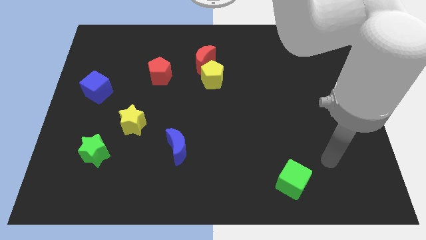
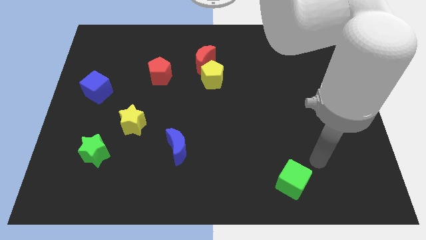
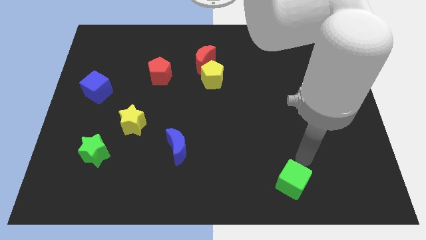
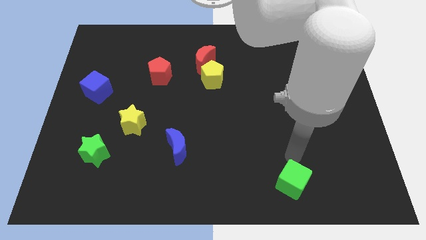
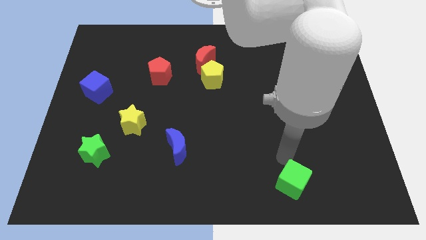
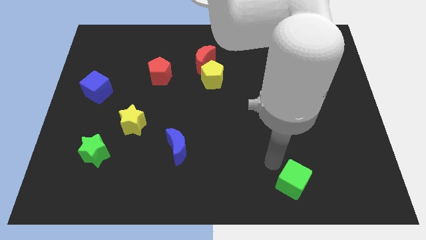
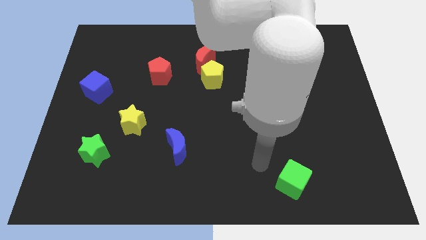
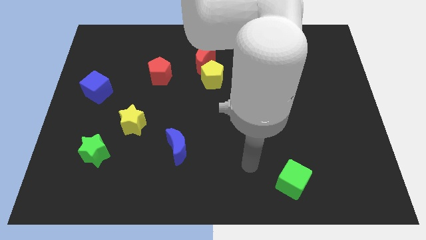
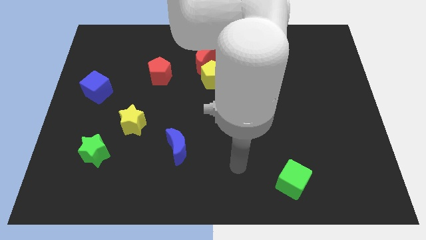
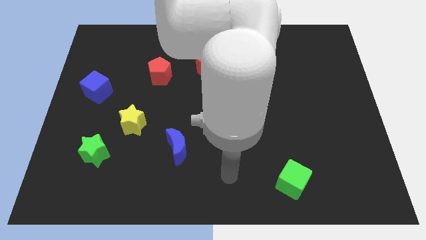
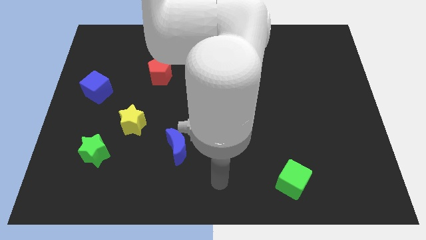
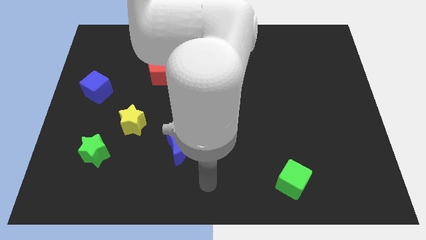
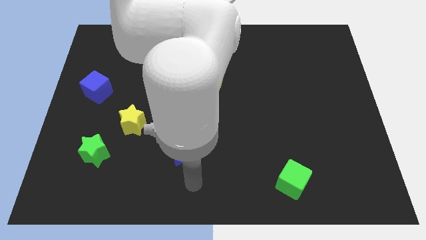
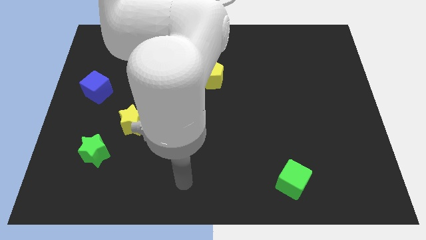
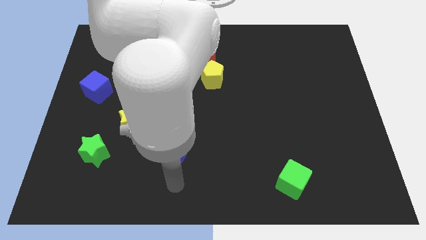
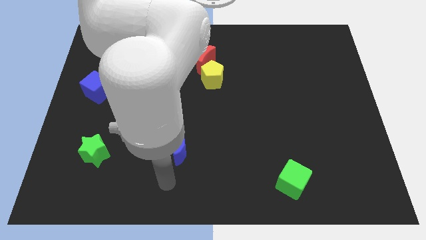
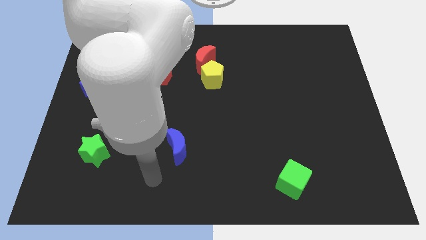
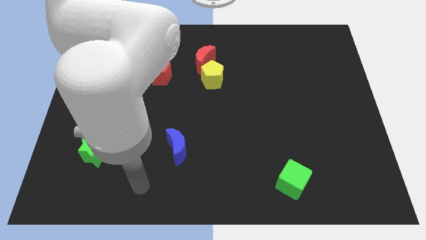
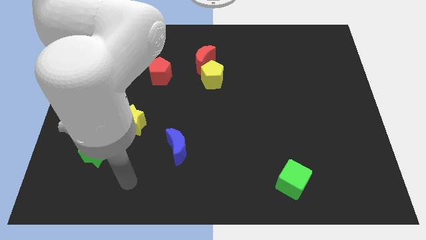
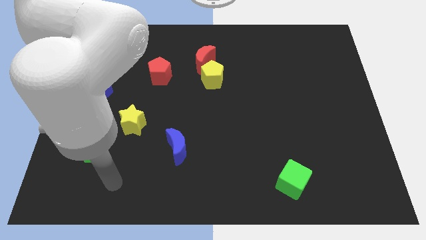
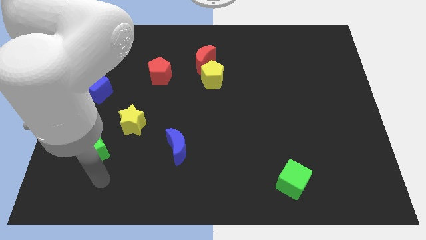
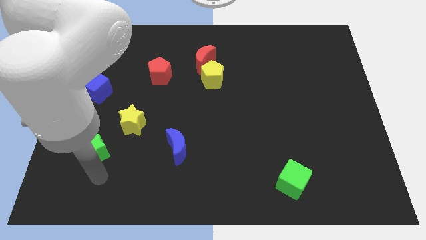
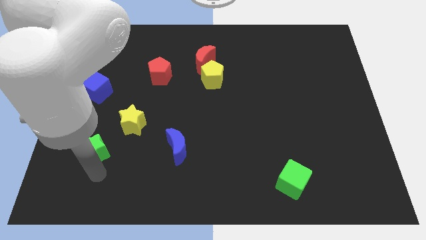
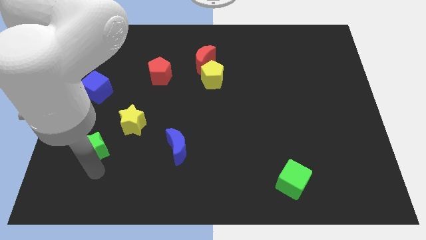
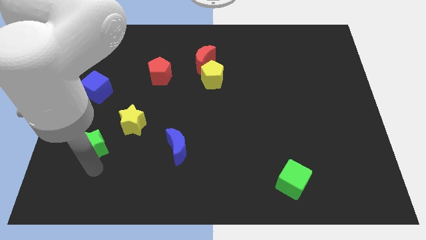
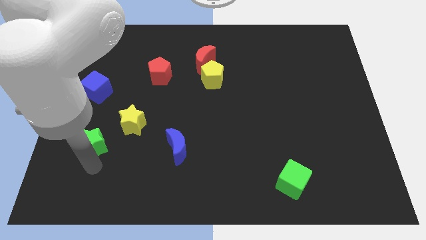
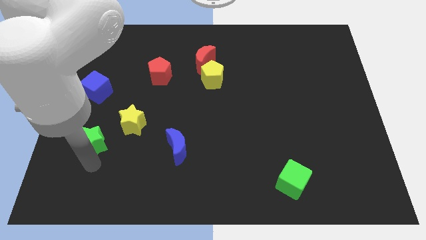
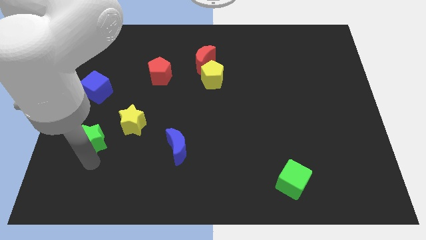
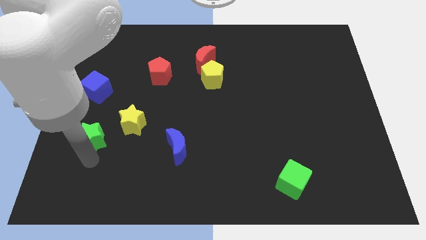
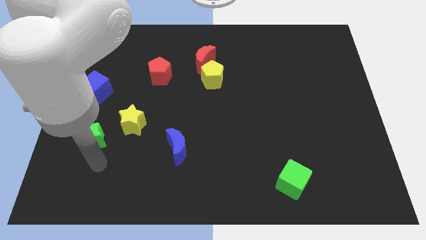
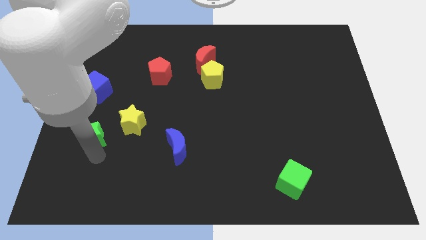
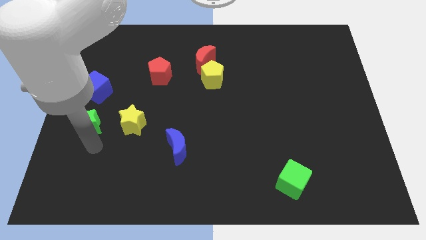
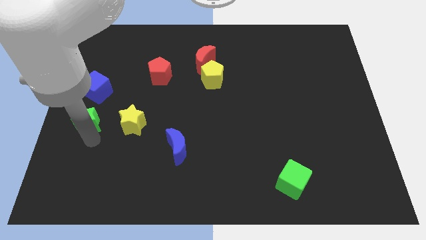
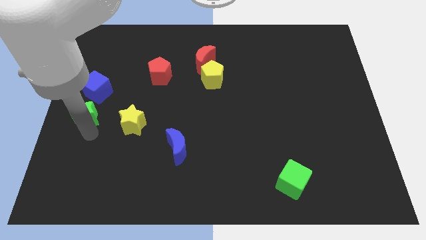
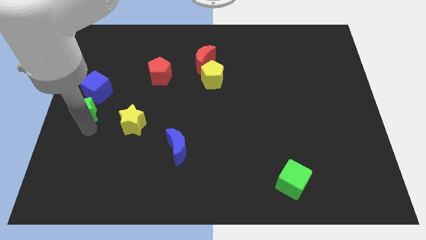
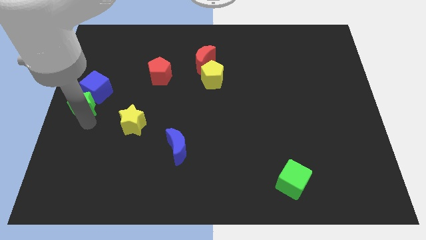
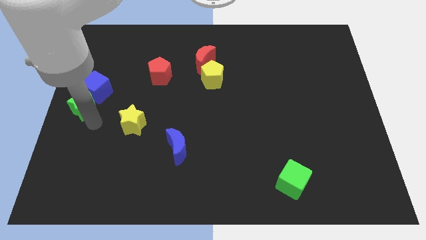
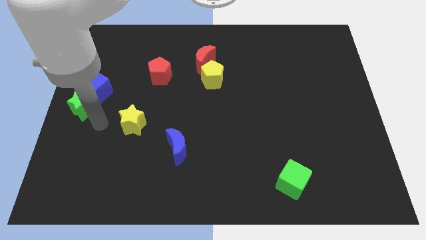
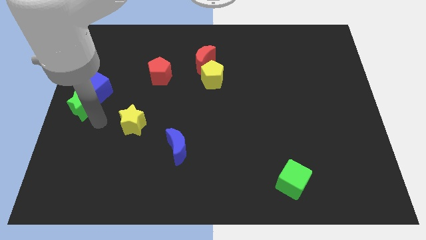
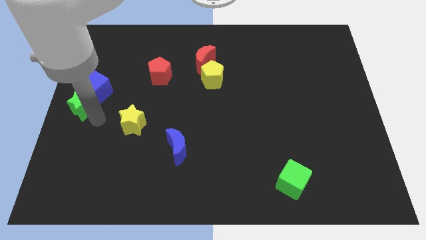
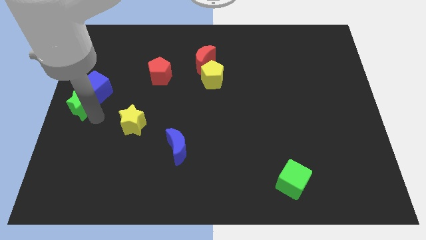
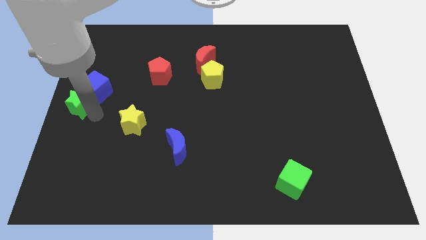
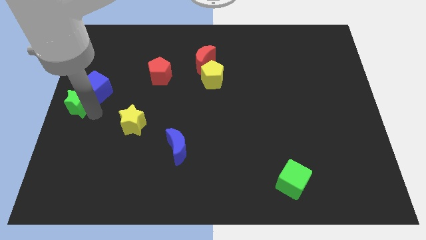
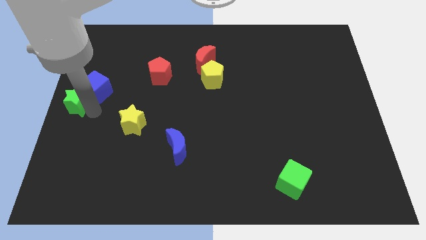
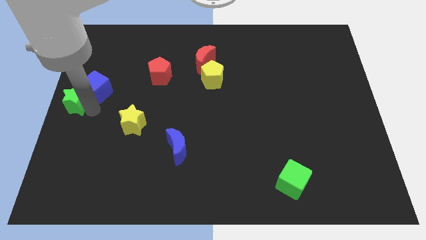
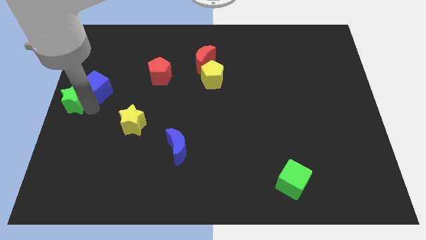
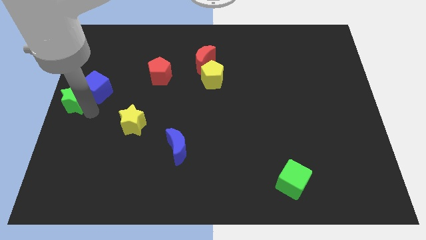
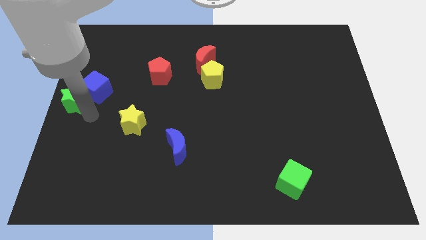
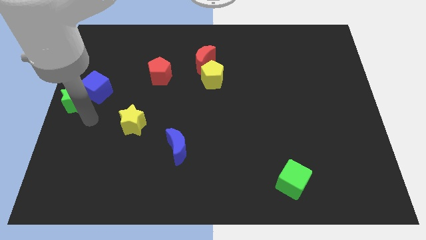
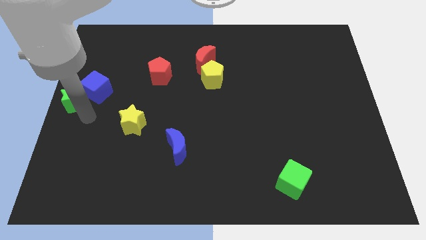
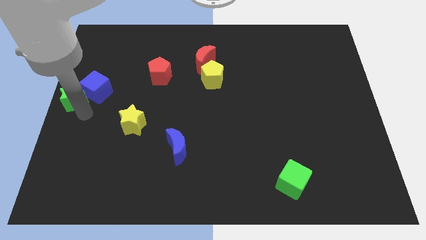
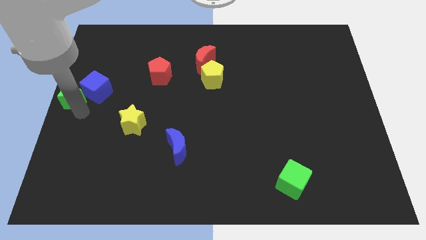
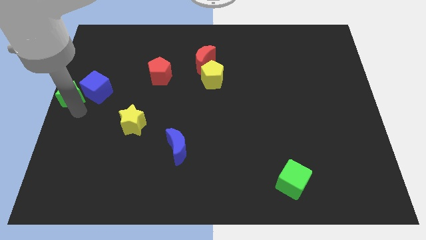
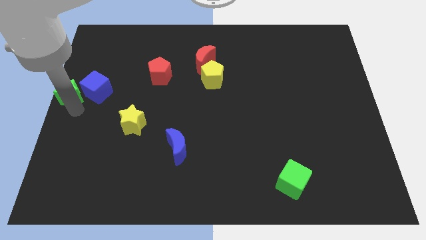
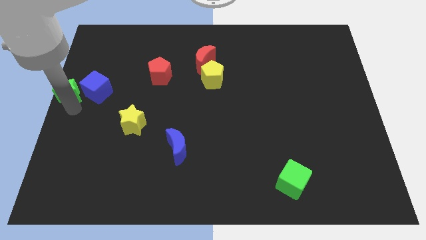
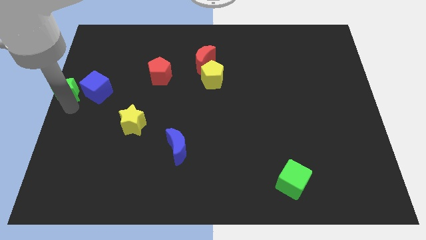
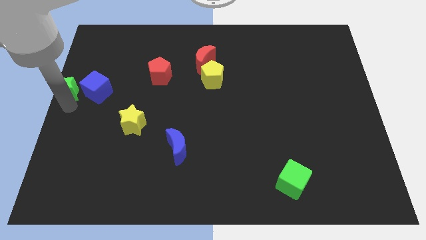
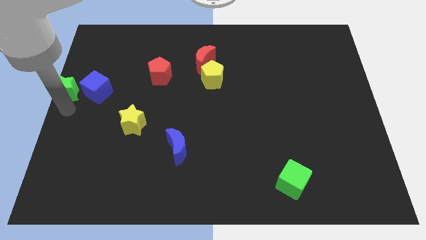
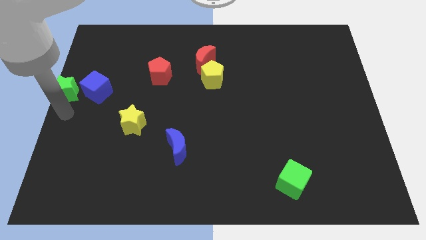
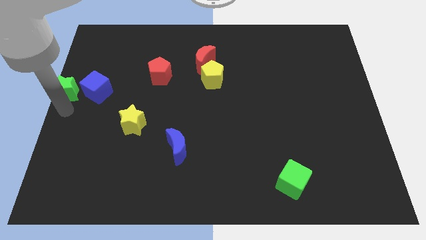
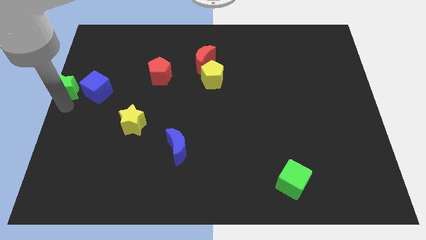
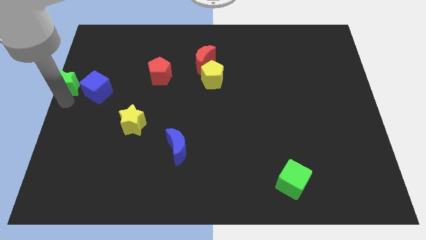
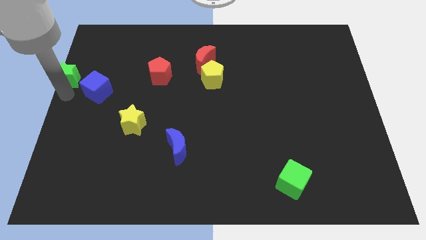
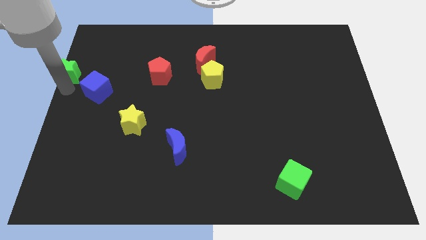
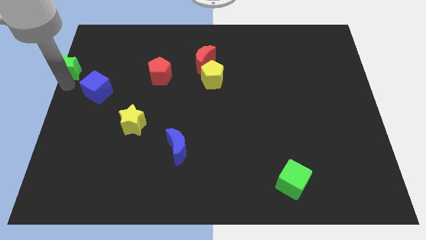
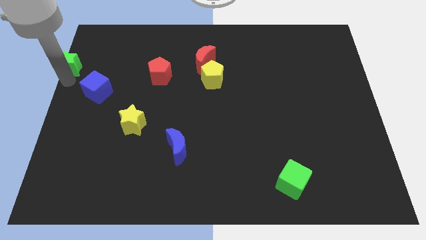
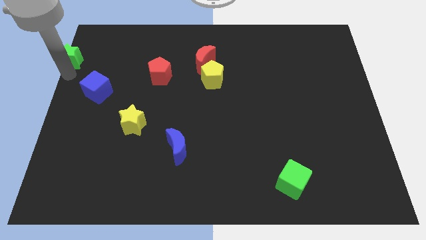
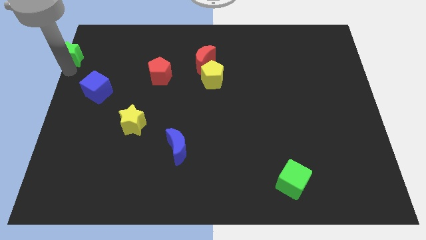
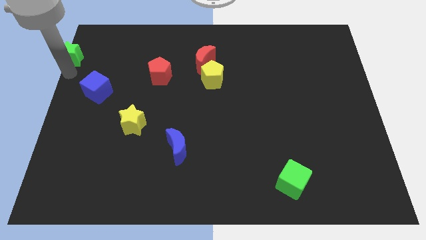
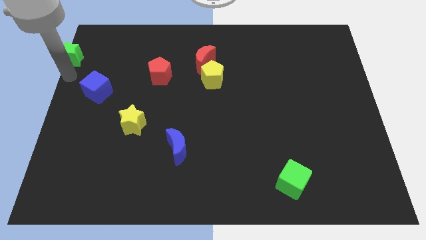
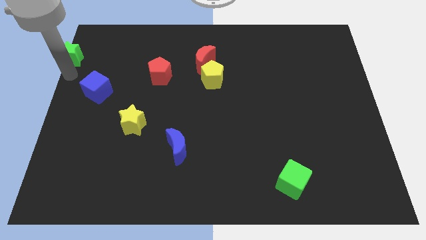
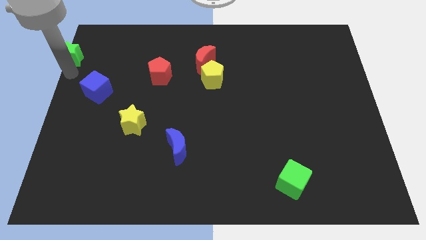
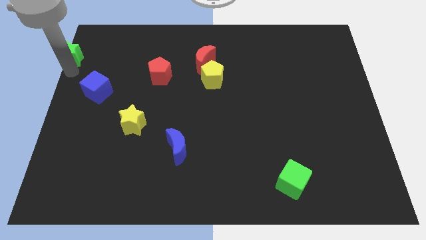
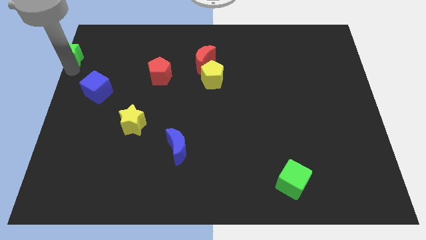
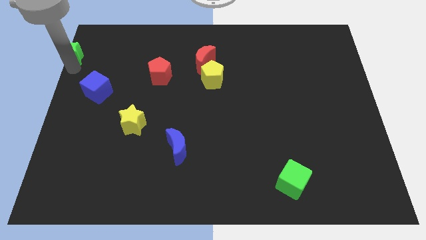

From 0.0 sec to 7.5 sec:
slide the green star to the upper left corner
